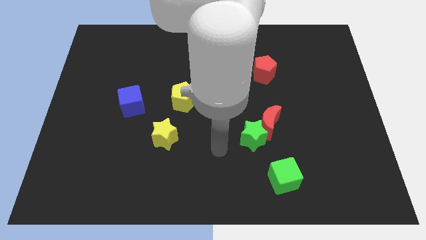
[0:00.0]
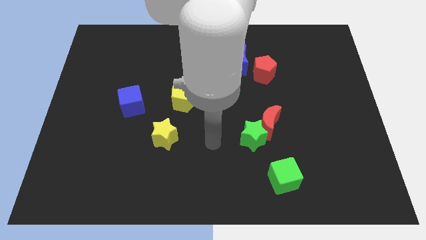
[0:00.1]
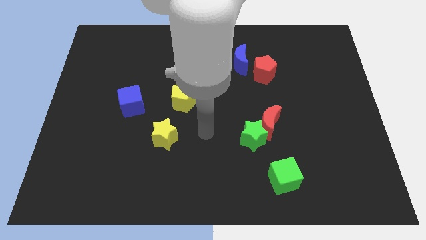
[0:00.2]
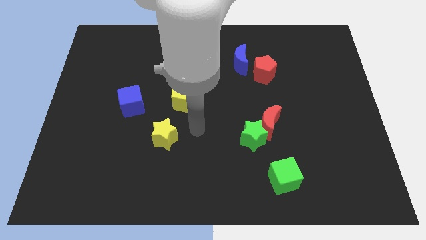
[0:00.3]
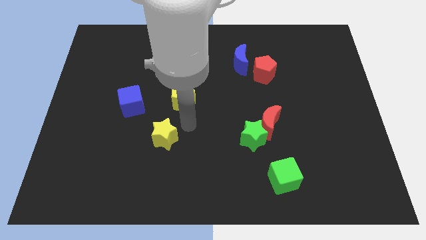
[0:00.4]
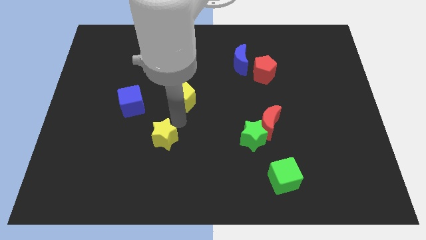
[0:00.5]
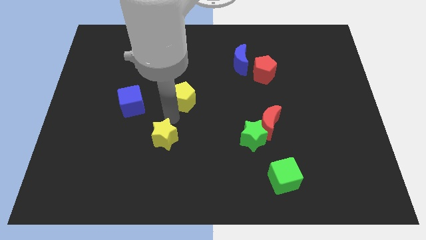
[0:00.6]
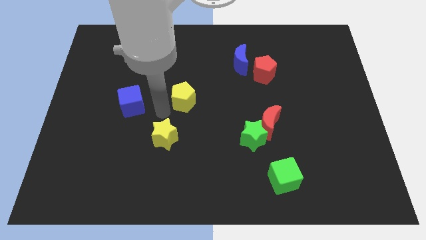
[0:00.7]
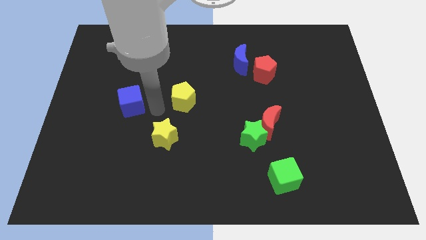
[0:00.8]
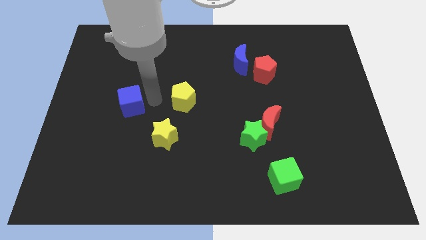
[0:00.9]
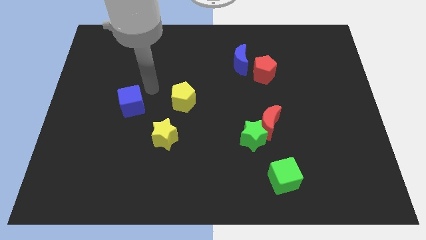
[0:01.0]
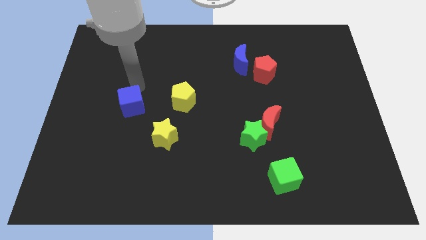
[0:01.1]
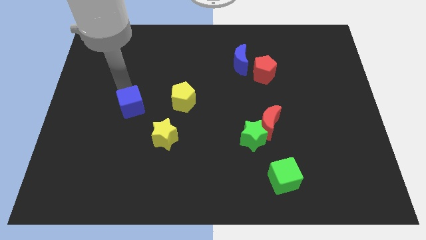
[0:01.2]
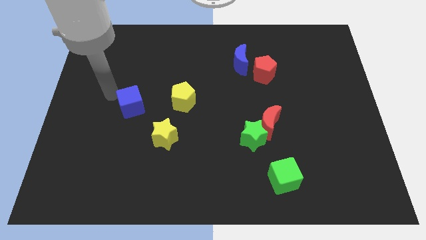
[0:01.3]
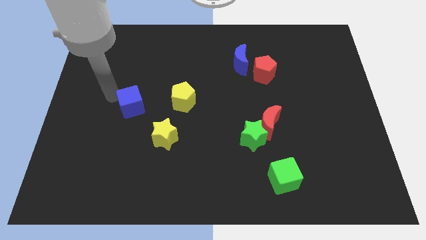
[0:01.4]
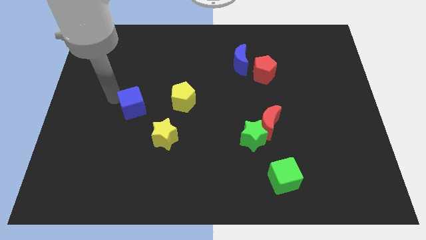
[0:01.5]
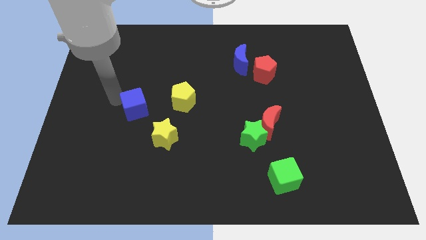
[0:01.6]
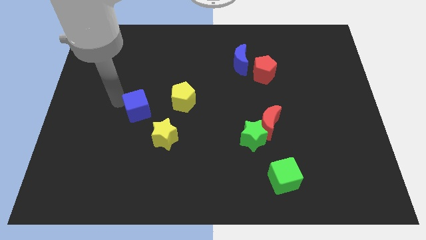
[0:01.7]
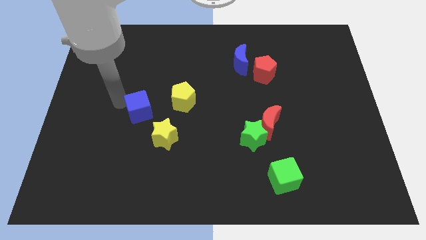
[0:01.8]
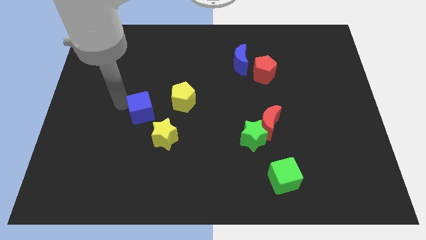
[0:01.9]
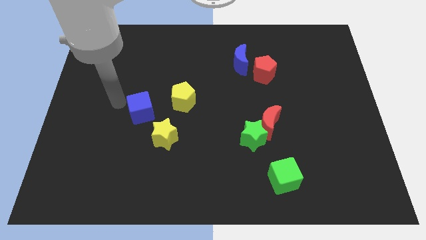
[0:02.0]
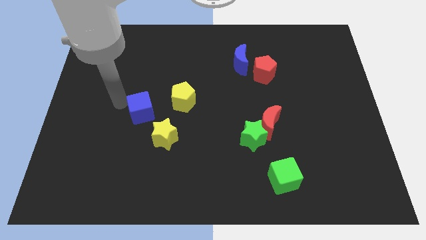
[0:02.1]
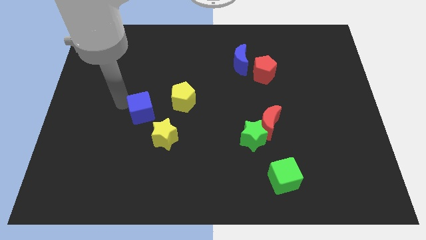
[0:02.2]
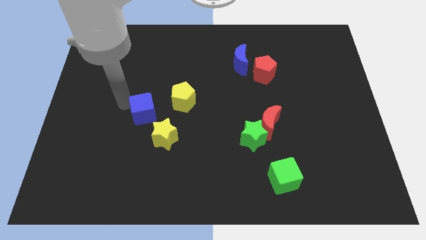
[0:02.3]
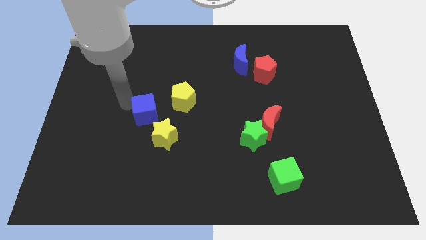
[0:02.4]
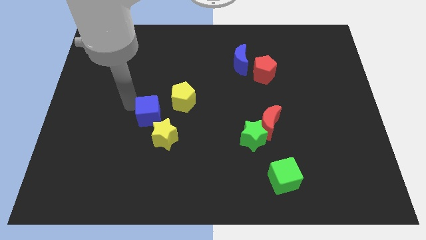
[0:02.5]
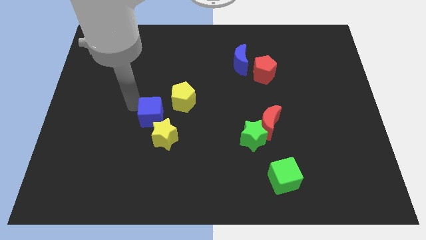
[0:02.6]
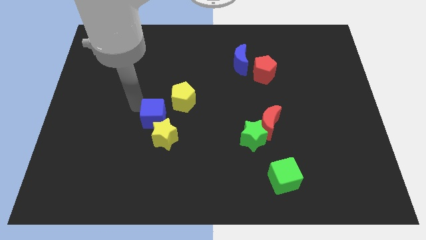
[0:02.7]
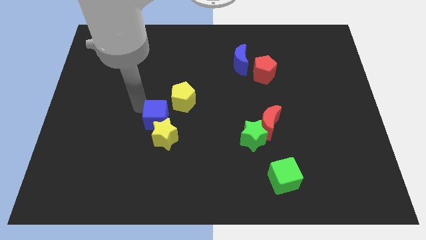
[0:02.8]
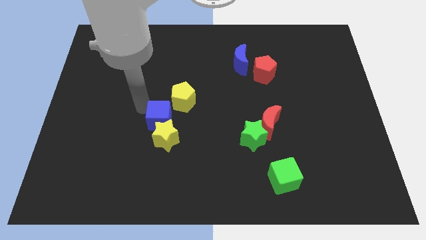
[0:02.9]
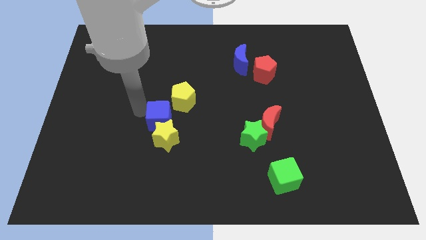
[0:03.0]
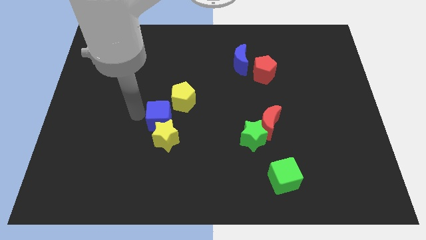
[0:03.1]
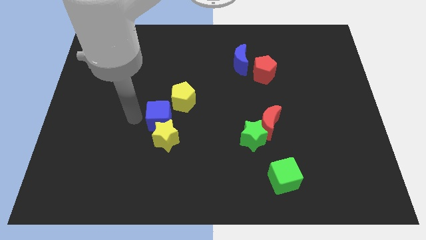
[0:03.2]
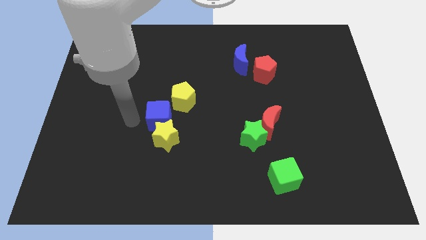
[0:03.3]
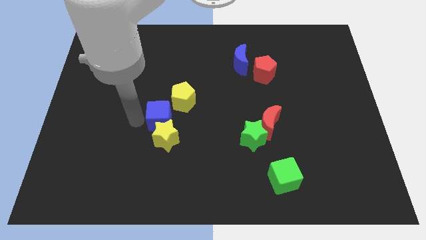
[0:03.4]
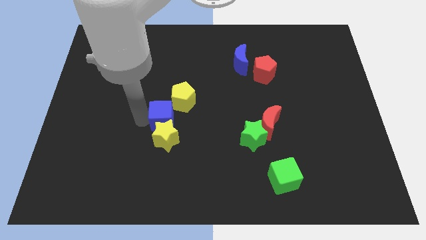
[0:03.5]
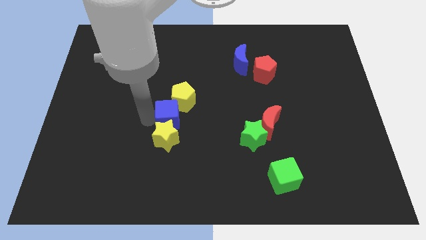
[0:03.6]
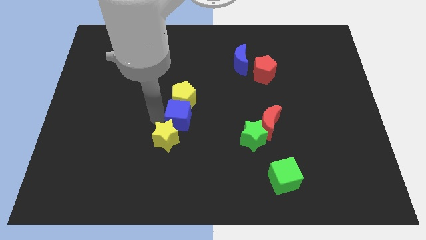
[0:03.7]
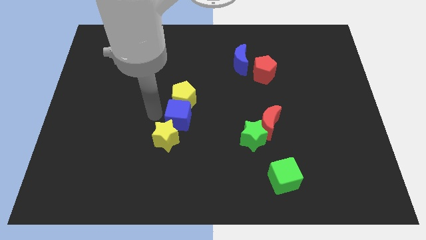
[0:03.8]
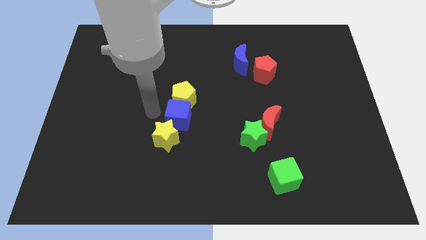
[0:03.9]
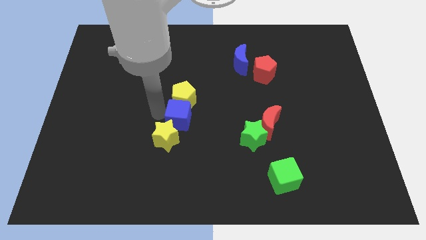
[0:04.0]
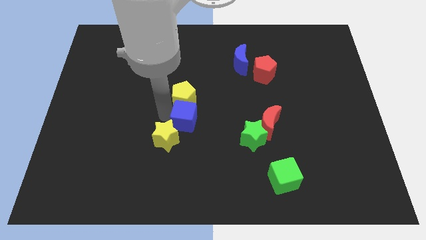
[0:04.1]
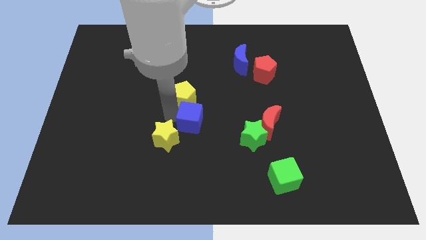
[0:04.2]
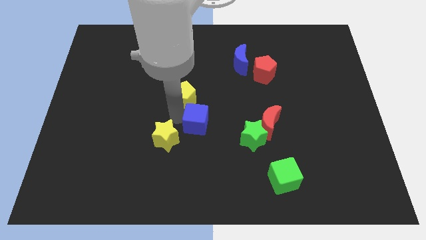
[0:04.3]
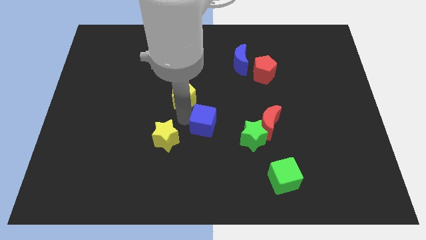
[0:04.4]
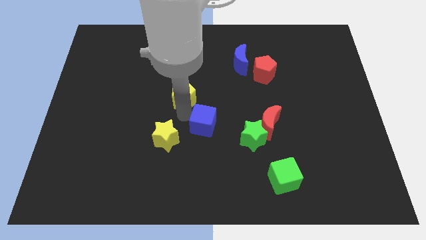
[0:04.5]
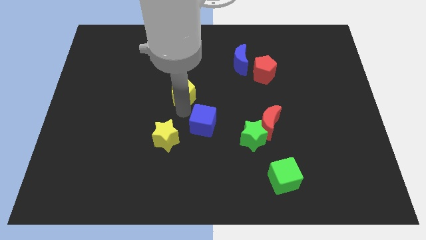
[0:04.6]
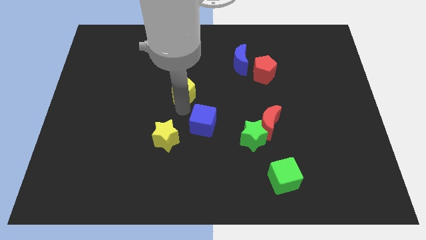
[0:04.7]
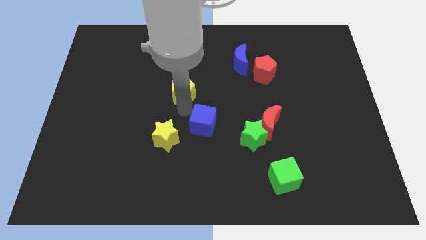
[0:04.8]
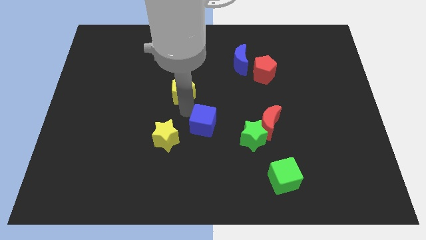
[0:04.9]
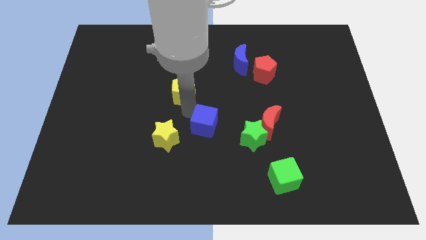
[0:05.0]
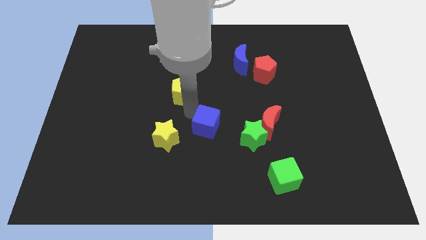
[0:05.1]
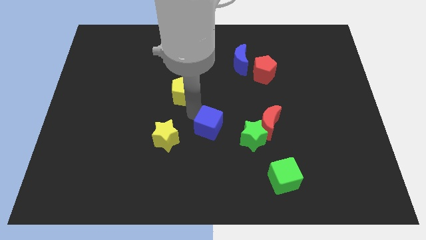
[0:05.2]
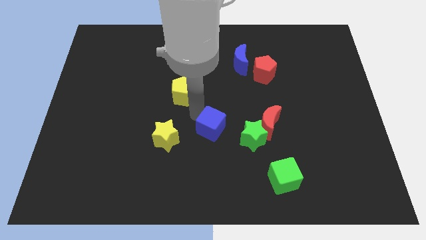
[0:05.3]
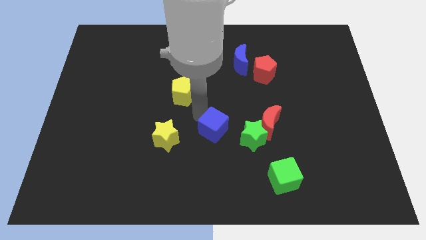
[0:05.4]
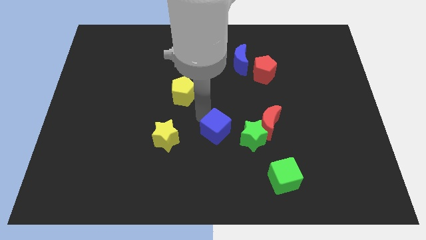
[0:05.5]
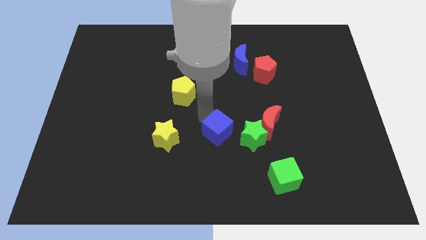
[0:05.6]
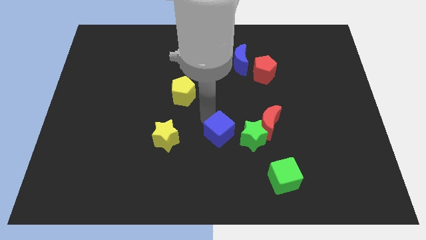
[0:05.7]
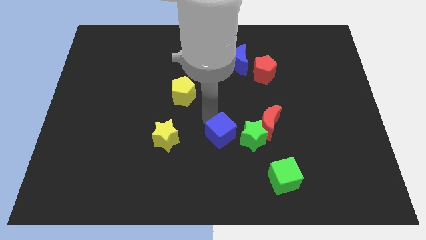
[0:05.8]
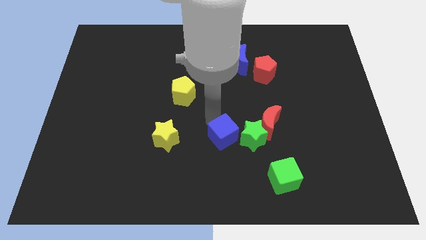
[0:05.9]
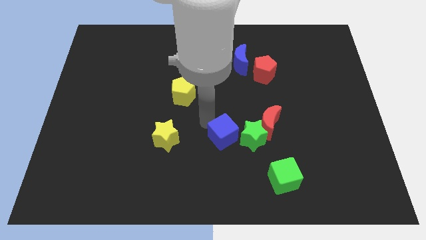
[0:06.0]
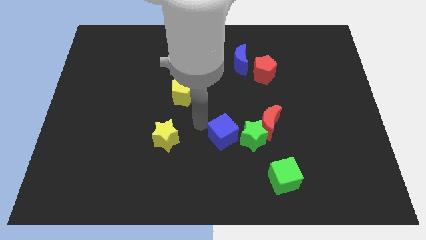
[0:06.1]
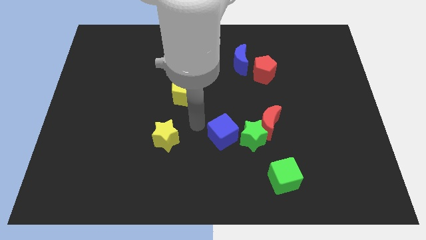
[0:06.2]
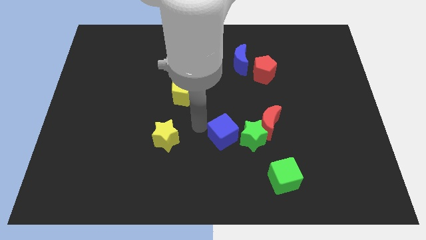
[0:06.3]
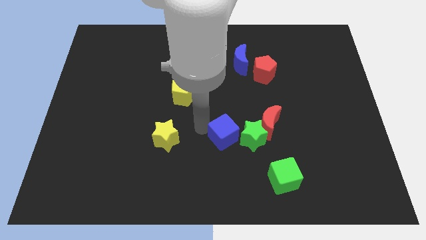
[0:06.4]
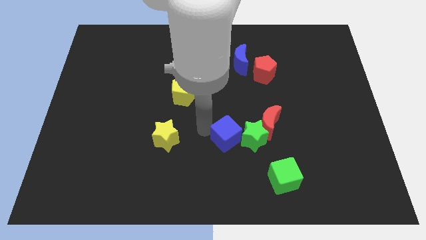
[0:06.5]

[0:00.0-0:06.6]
move the blue cube diagonally down and to the left of the red moon
